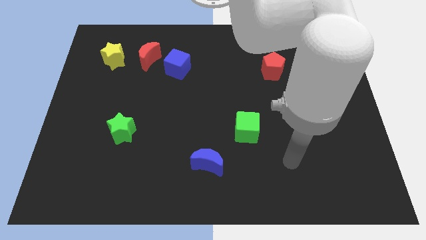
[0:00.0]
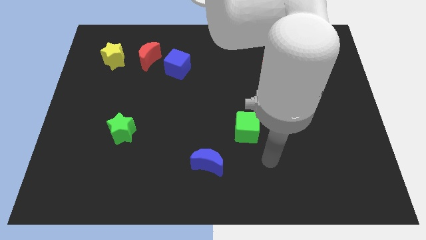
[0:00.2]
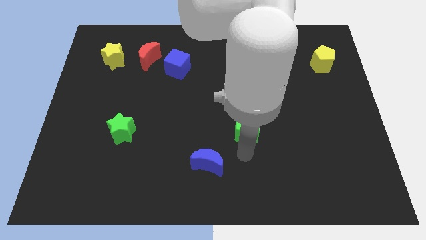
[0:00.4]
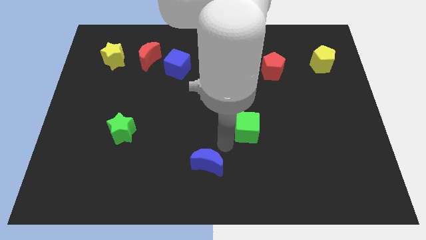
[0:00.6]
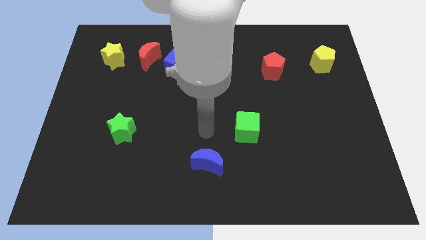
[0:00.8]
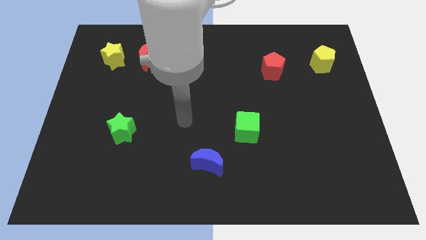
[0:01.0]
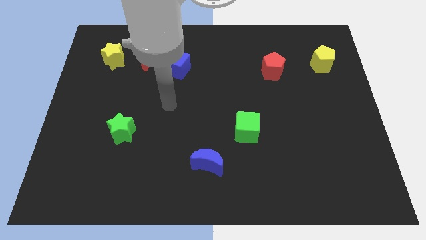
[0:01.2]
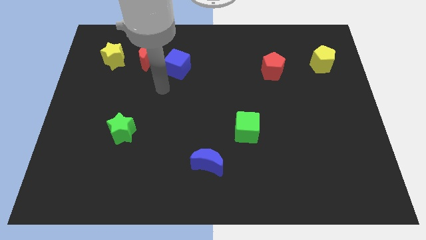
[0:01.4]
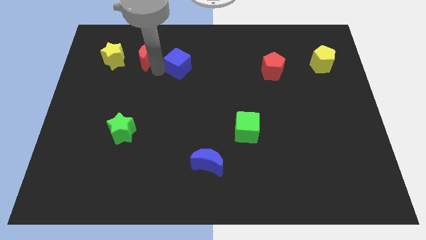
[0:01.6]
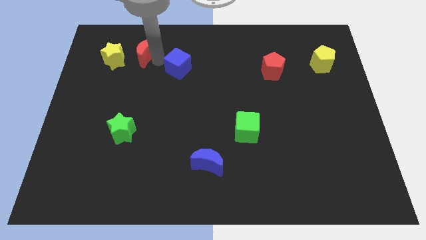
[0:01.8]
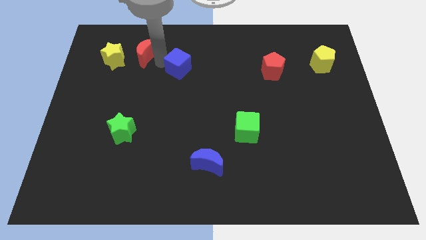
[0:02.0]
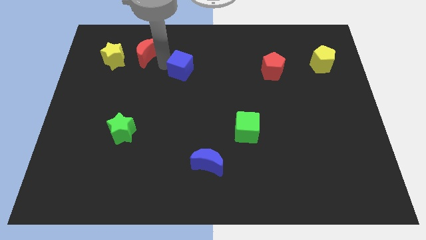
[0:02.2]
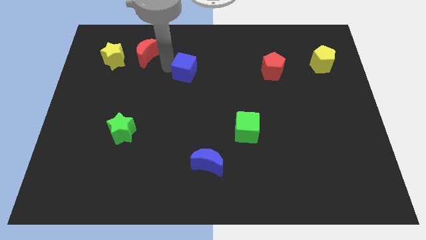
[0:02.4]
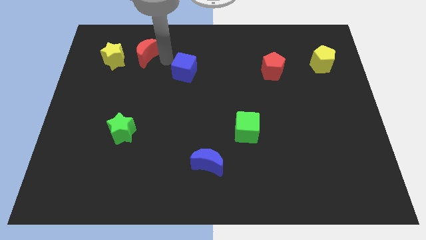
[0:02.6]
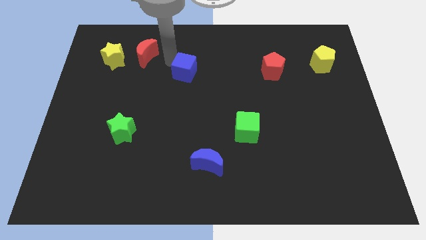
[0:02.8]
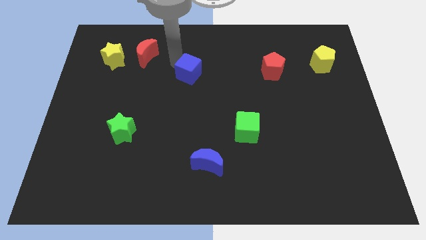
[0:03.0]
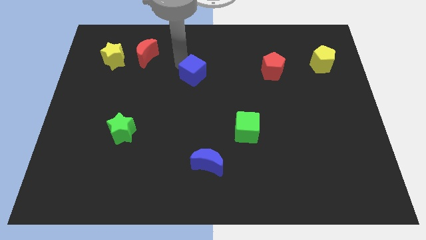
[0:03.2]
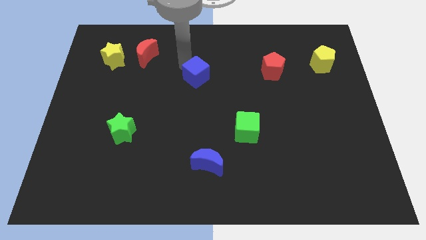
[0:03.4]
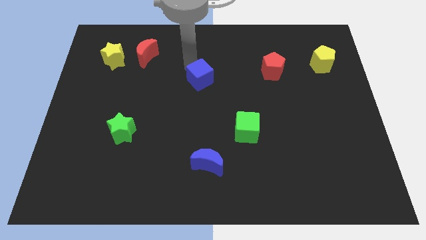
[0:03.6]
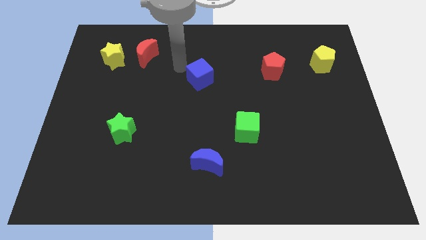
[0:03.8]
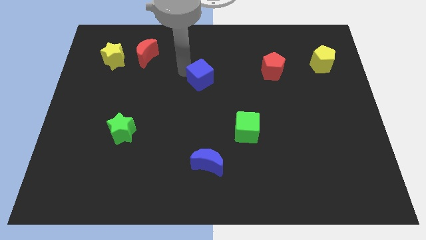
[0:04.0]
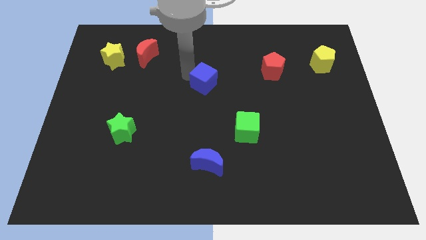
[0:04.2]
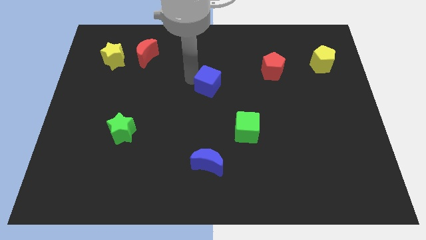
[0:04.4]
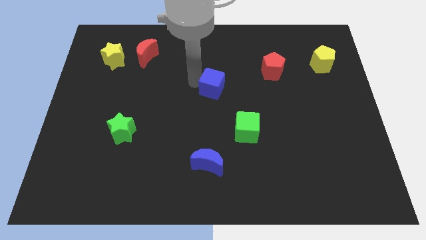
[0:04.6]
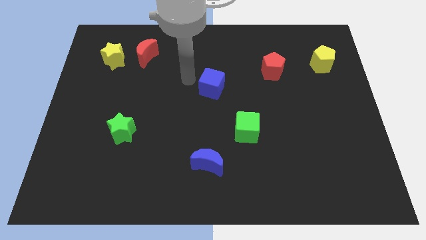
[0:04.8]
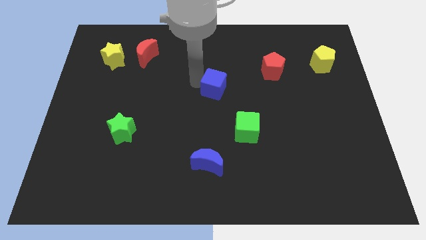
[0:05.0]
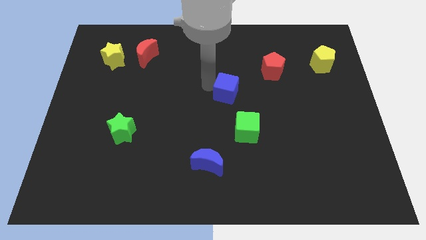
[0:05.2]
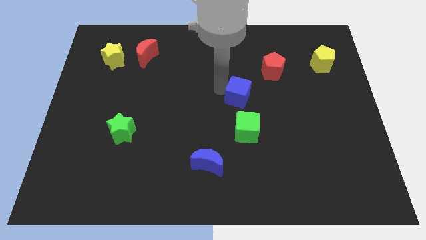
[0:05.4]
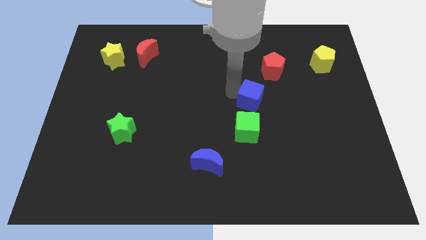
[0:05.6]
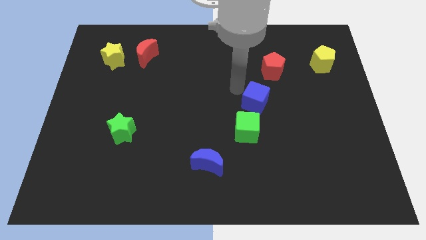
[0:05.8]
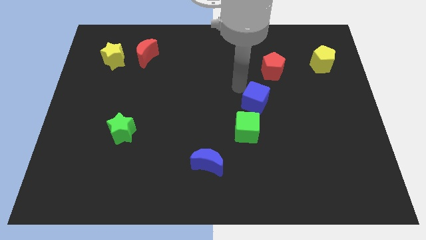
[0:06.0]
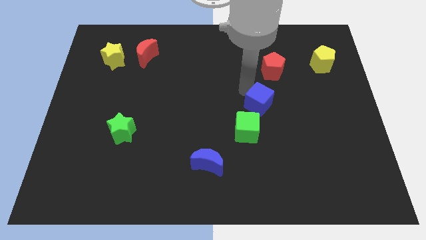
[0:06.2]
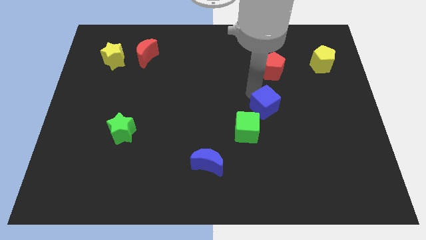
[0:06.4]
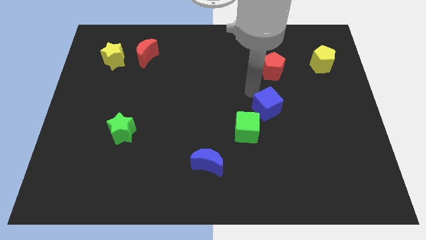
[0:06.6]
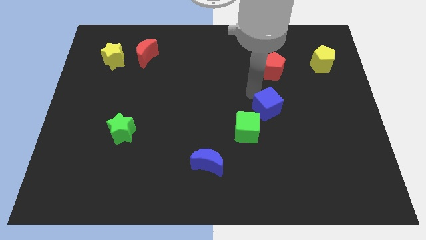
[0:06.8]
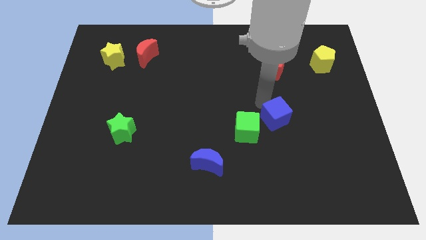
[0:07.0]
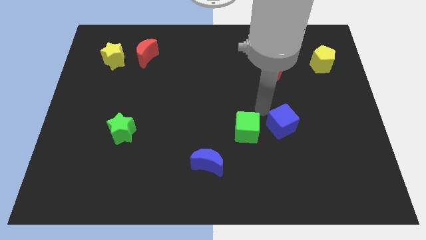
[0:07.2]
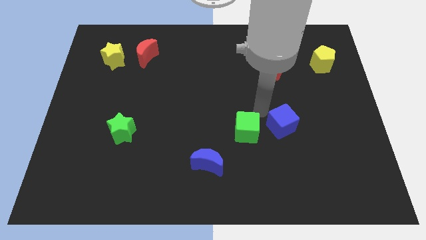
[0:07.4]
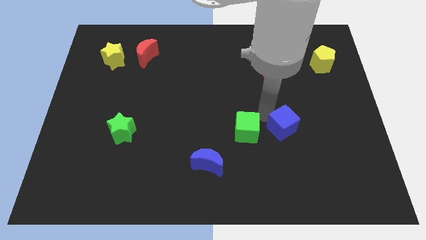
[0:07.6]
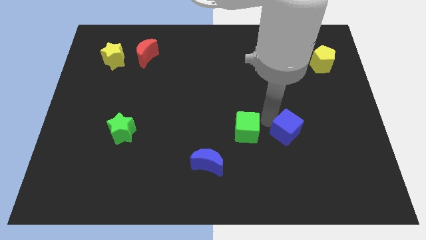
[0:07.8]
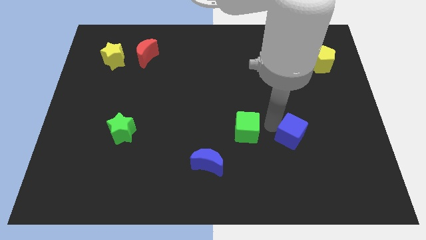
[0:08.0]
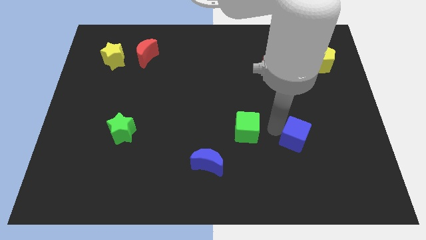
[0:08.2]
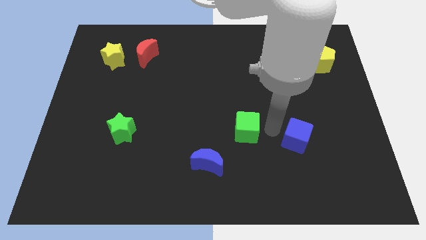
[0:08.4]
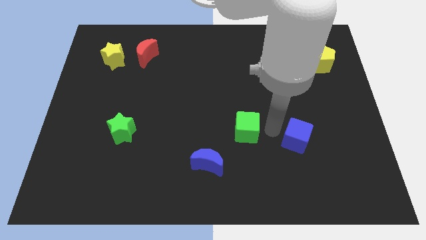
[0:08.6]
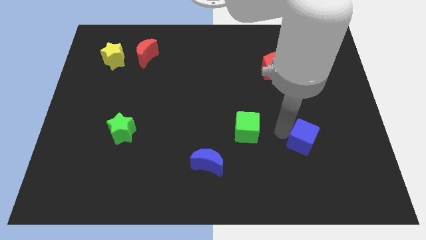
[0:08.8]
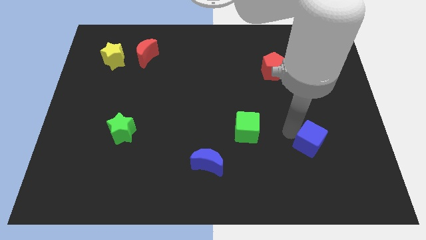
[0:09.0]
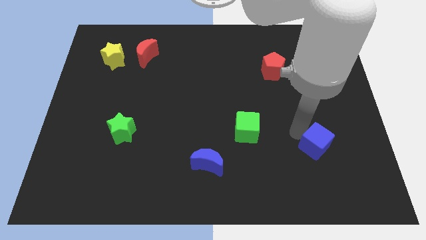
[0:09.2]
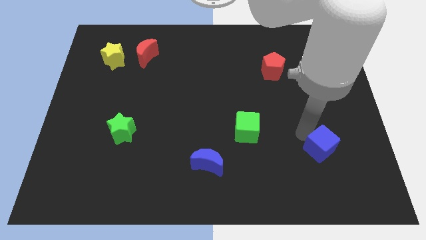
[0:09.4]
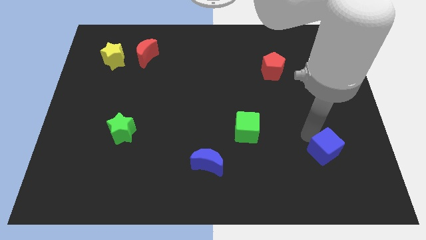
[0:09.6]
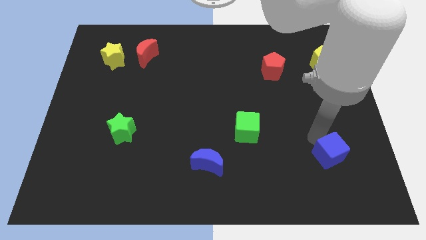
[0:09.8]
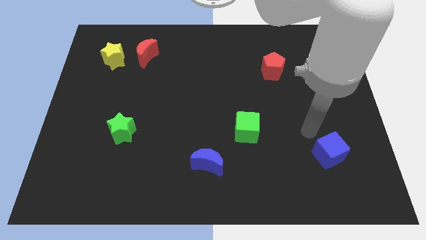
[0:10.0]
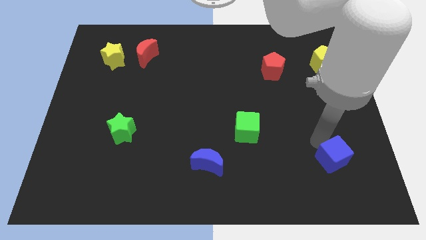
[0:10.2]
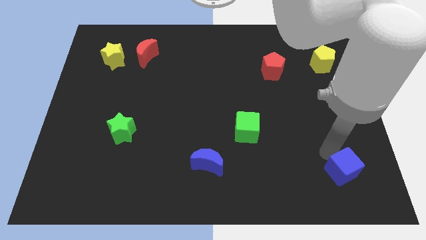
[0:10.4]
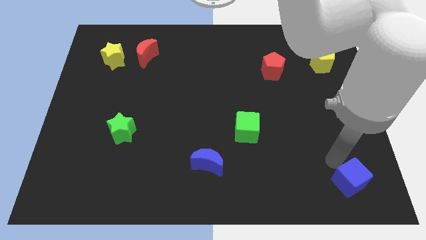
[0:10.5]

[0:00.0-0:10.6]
push the blue cube to the bottom right corner
